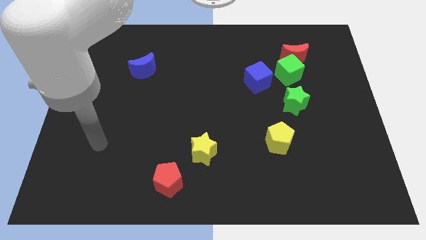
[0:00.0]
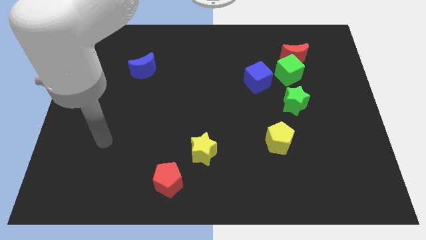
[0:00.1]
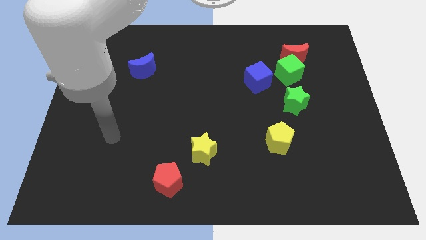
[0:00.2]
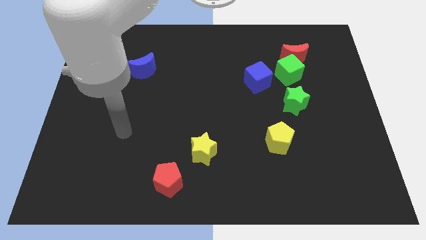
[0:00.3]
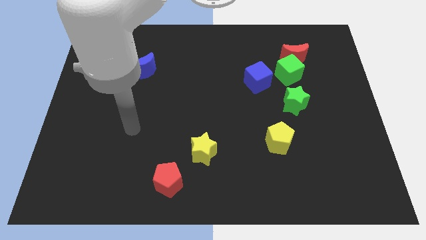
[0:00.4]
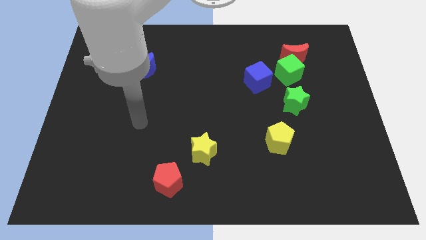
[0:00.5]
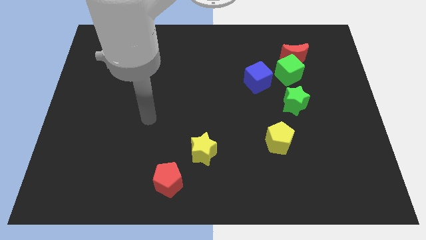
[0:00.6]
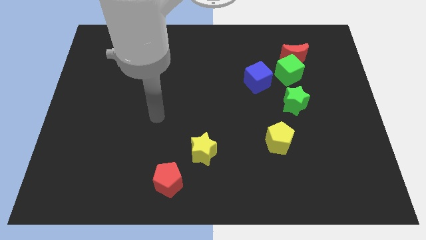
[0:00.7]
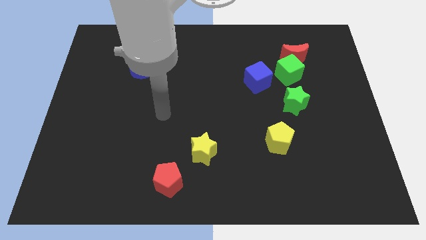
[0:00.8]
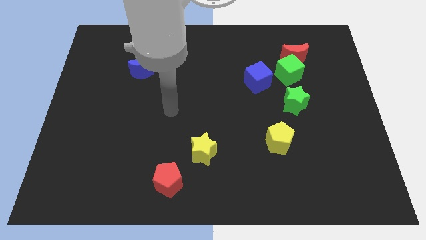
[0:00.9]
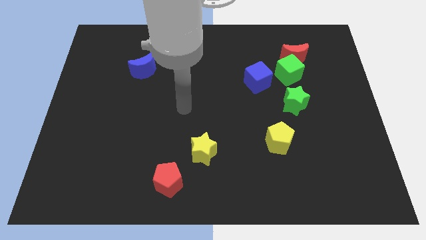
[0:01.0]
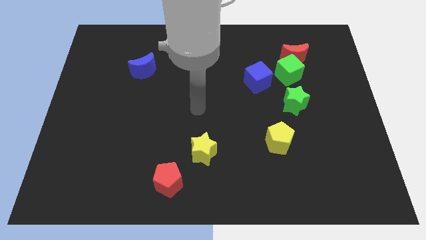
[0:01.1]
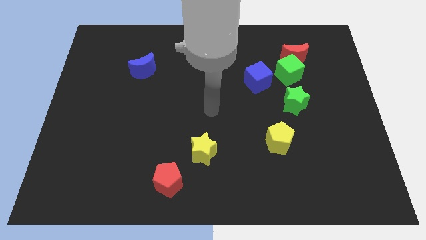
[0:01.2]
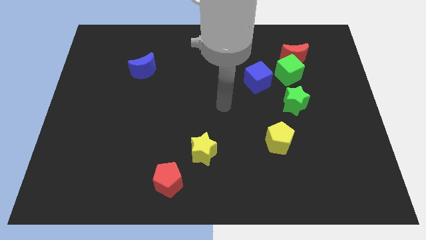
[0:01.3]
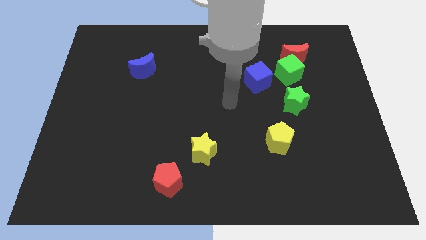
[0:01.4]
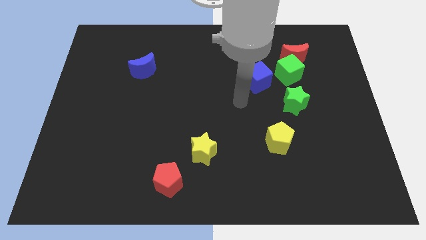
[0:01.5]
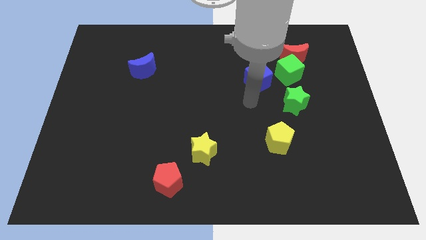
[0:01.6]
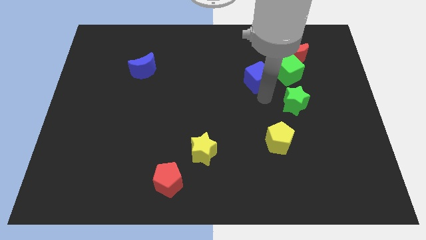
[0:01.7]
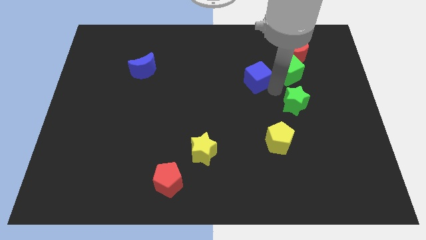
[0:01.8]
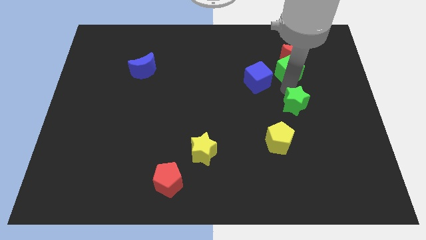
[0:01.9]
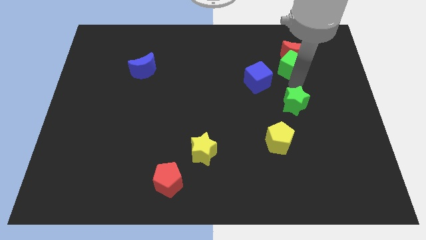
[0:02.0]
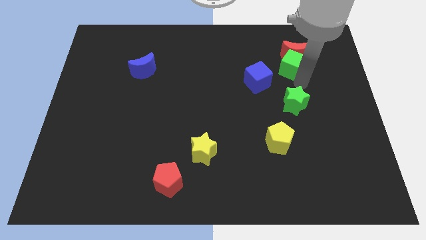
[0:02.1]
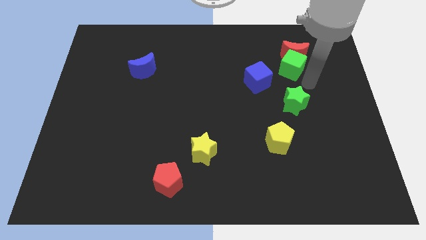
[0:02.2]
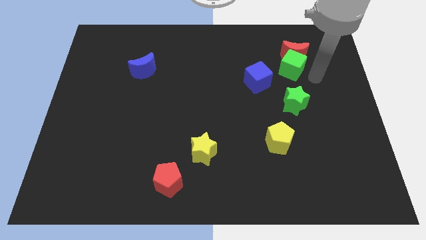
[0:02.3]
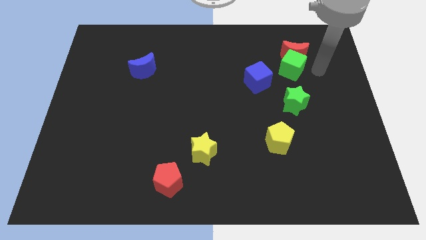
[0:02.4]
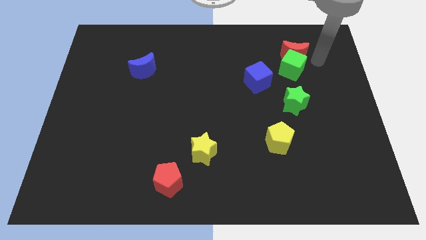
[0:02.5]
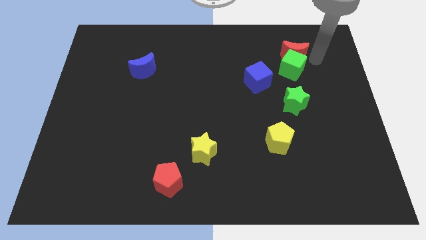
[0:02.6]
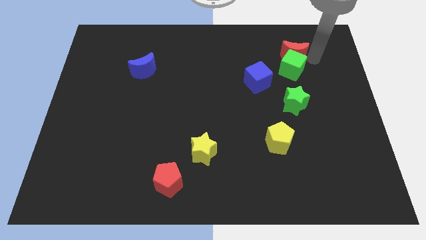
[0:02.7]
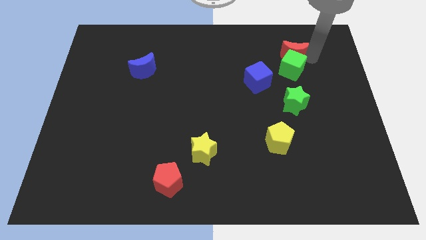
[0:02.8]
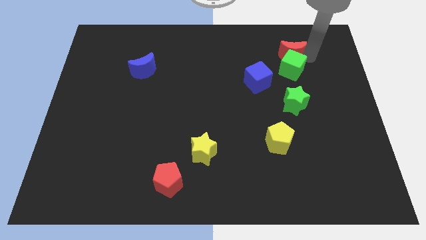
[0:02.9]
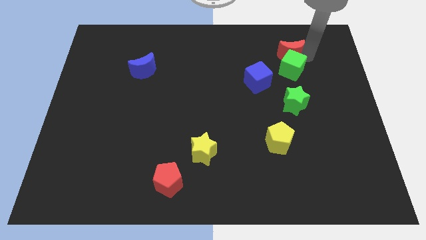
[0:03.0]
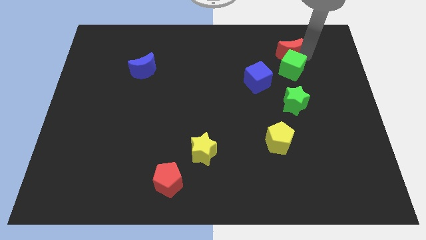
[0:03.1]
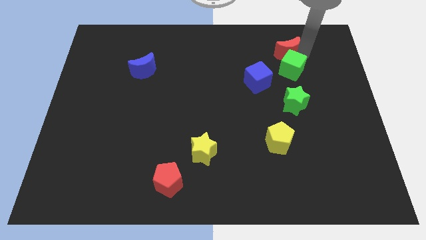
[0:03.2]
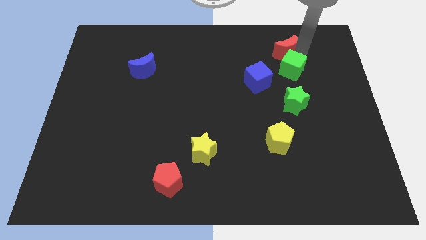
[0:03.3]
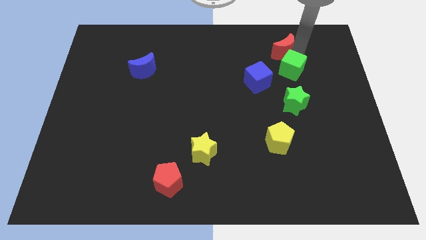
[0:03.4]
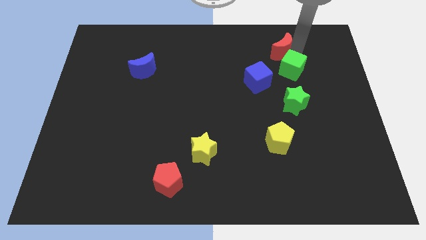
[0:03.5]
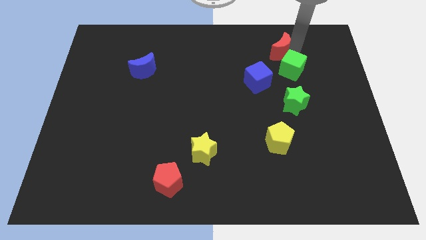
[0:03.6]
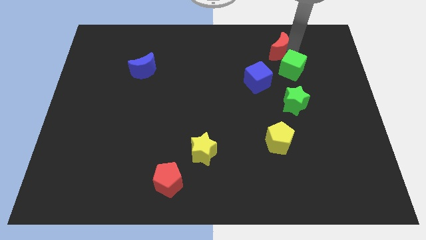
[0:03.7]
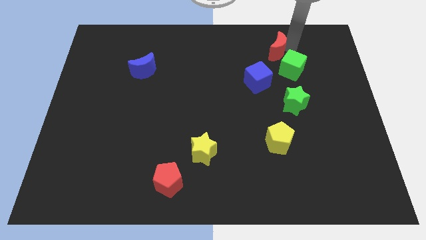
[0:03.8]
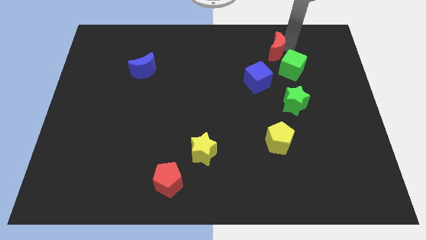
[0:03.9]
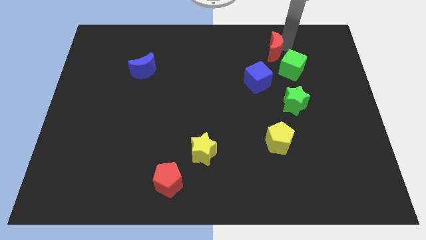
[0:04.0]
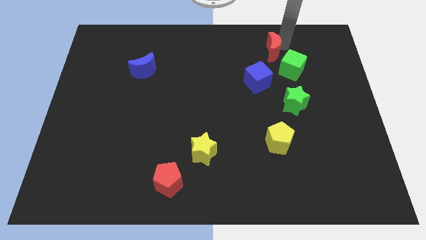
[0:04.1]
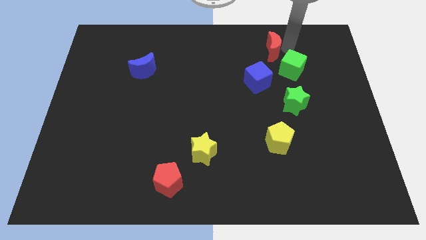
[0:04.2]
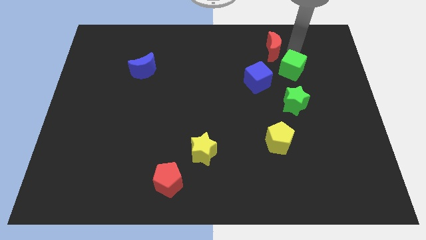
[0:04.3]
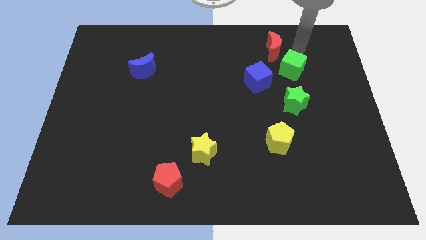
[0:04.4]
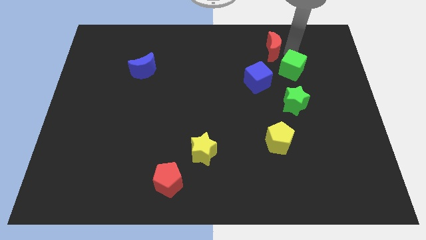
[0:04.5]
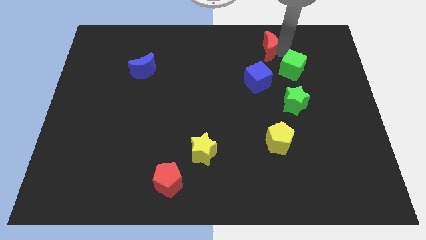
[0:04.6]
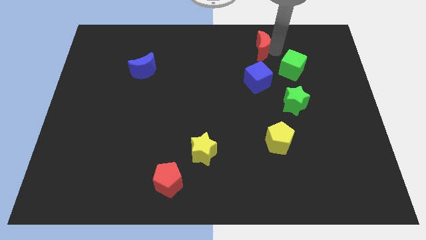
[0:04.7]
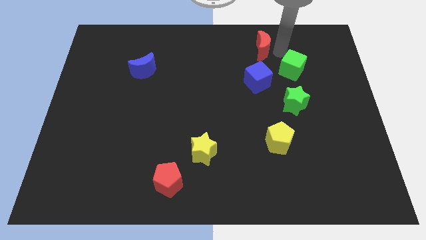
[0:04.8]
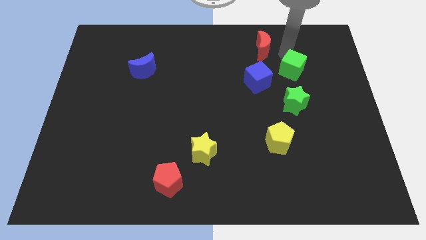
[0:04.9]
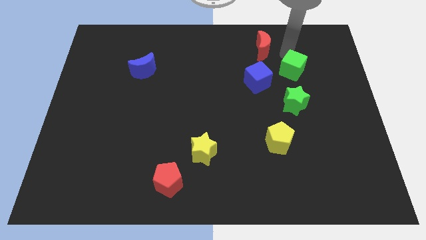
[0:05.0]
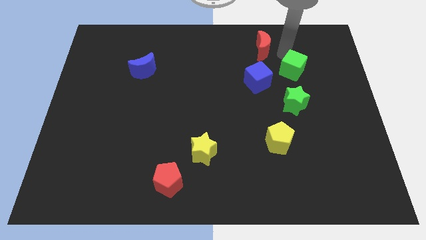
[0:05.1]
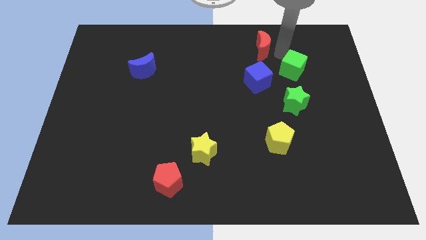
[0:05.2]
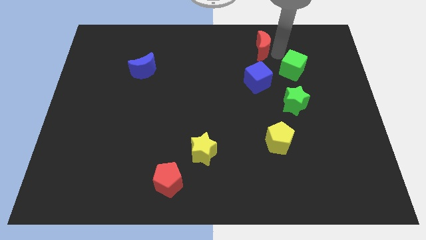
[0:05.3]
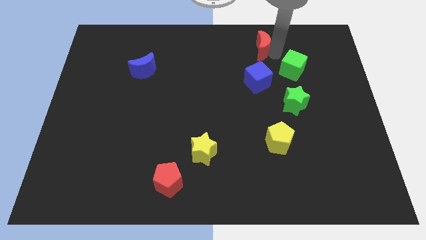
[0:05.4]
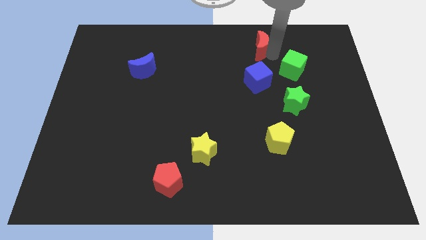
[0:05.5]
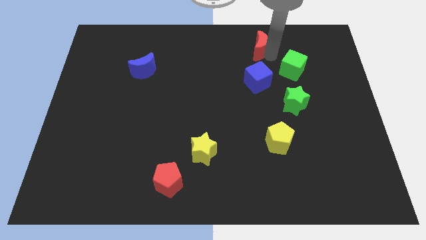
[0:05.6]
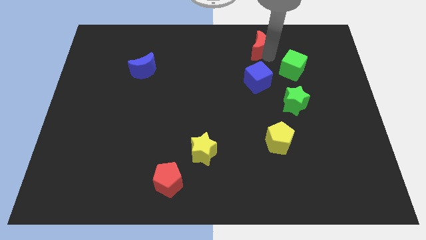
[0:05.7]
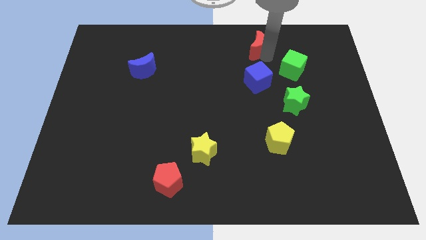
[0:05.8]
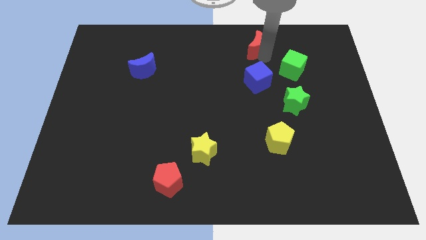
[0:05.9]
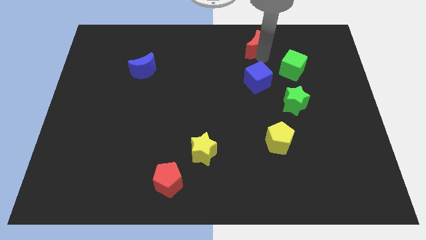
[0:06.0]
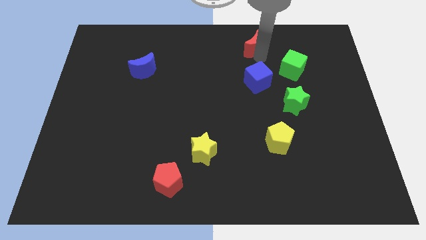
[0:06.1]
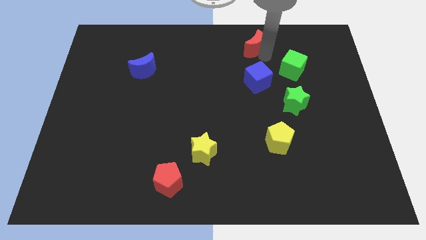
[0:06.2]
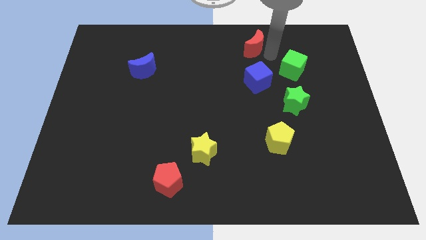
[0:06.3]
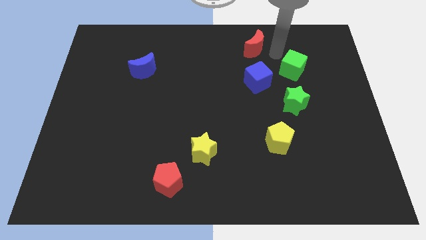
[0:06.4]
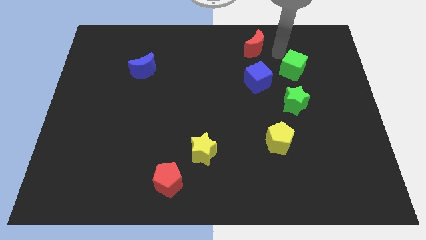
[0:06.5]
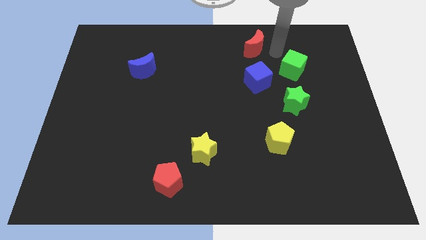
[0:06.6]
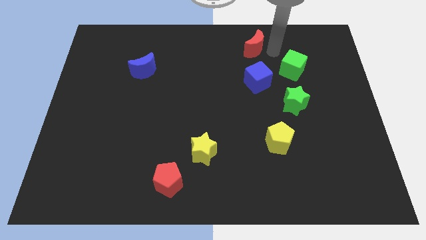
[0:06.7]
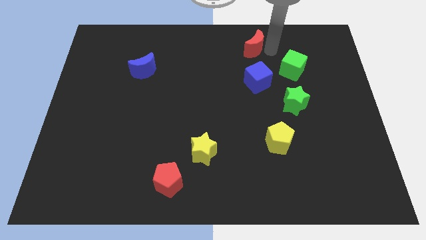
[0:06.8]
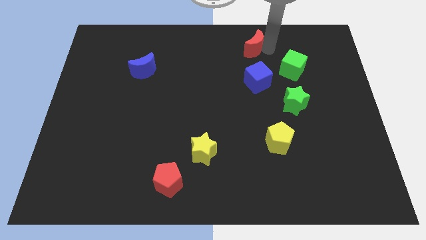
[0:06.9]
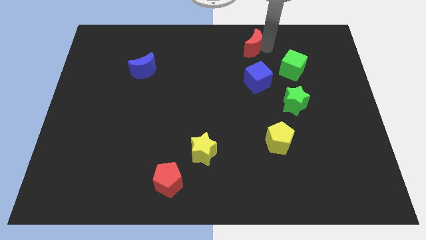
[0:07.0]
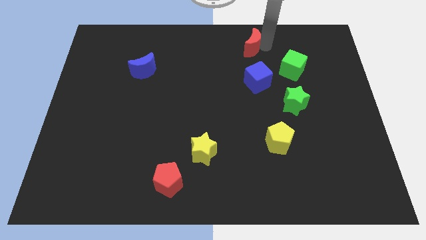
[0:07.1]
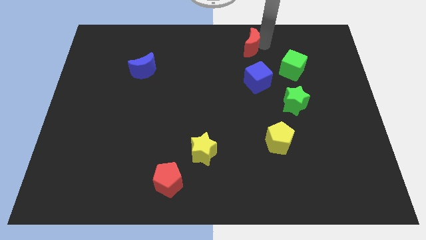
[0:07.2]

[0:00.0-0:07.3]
slide the red moon to the top side
